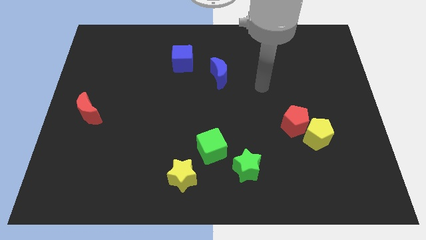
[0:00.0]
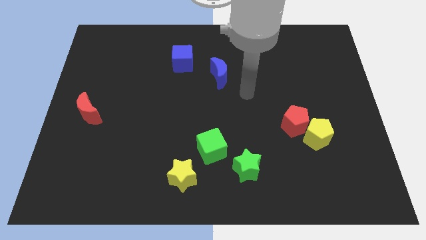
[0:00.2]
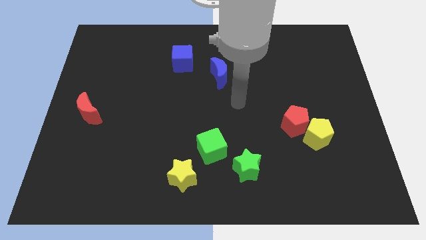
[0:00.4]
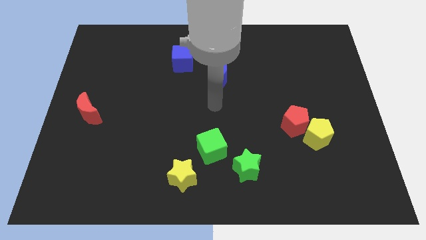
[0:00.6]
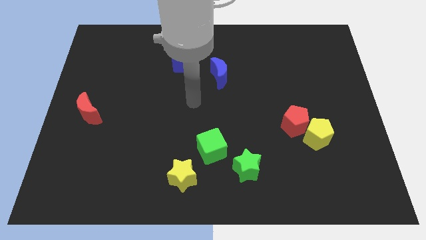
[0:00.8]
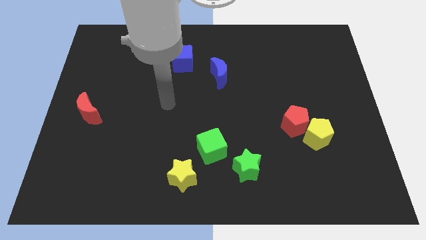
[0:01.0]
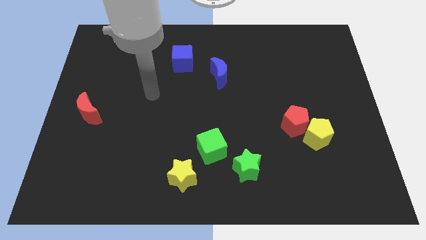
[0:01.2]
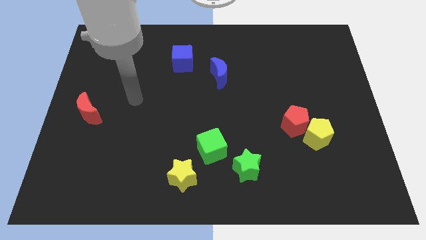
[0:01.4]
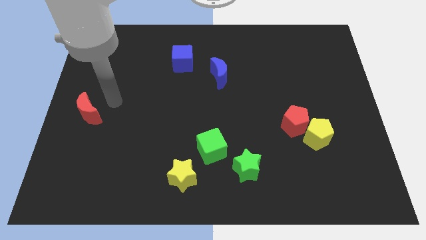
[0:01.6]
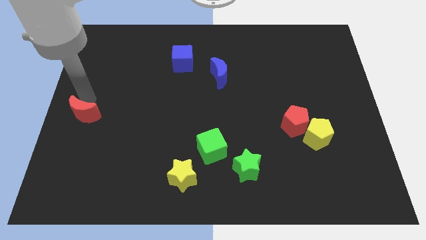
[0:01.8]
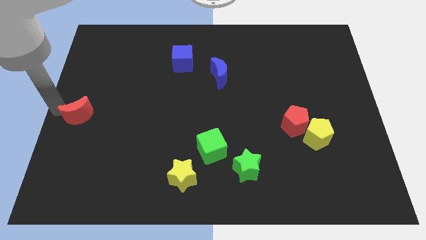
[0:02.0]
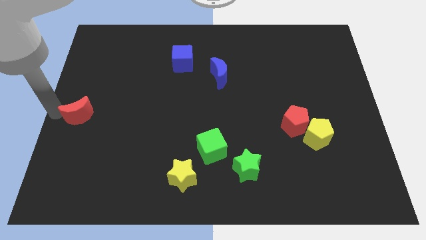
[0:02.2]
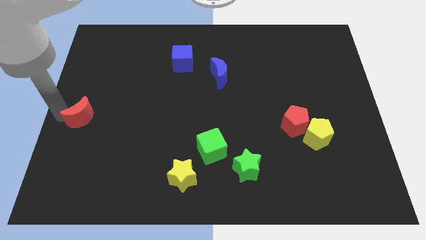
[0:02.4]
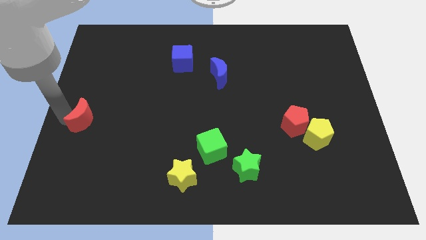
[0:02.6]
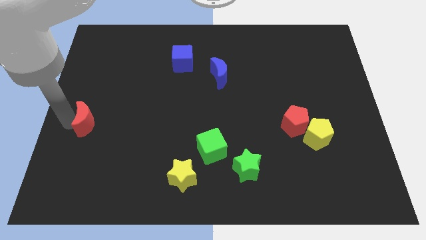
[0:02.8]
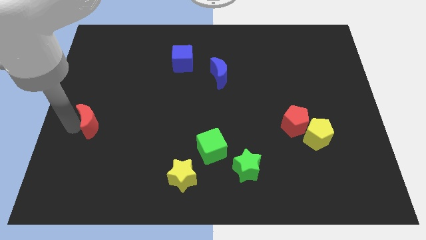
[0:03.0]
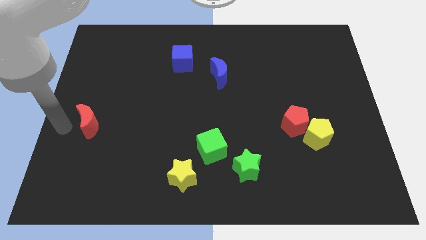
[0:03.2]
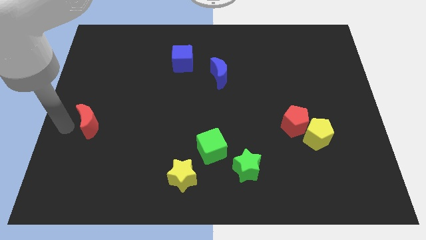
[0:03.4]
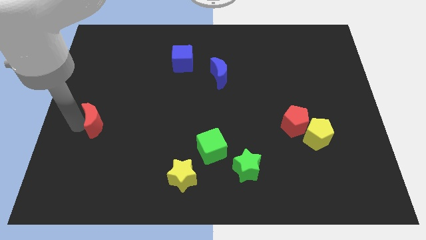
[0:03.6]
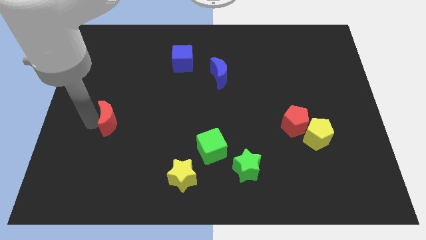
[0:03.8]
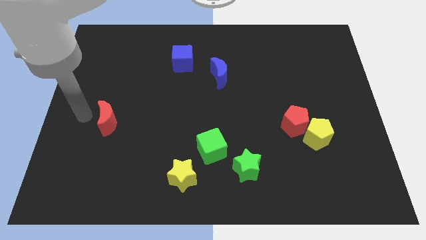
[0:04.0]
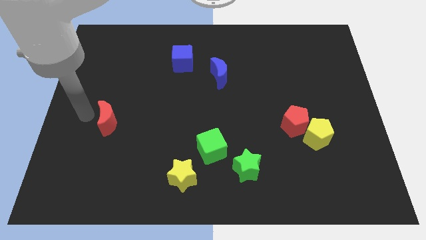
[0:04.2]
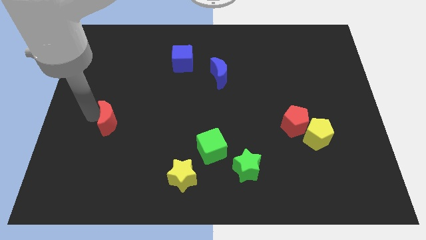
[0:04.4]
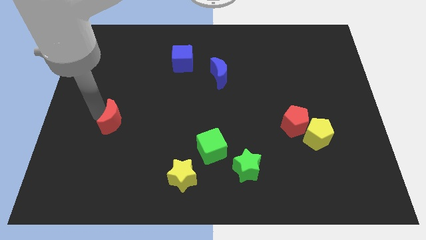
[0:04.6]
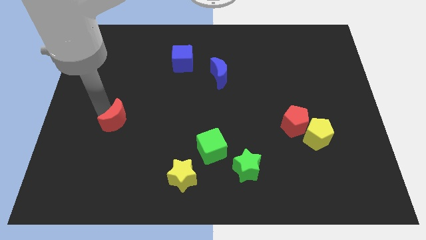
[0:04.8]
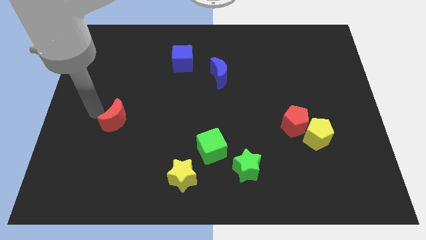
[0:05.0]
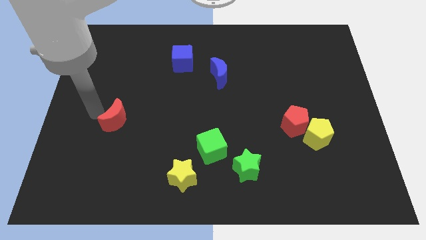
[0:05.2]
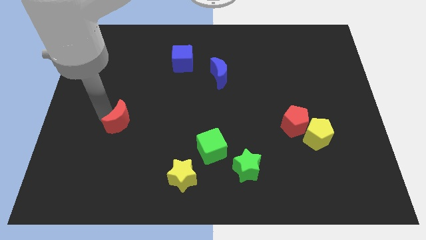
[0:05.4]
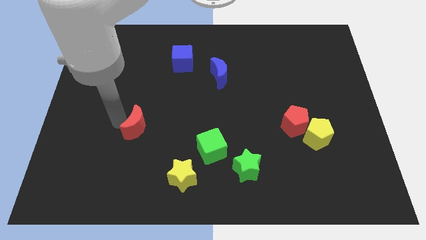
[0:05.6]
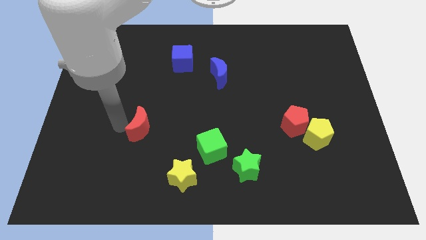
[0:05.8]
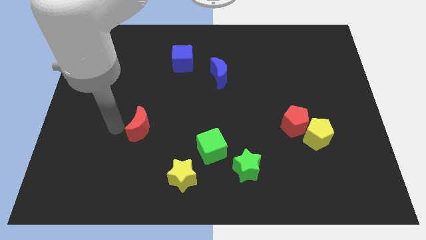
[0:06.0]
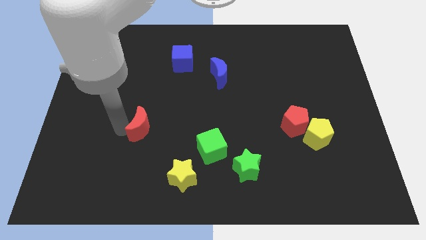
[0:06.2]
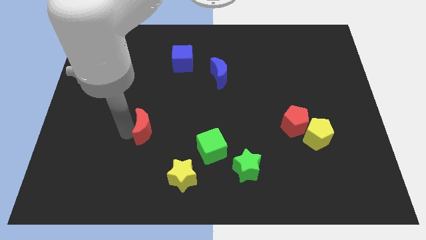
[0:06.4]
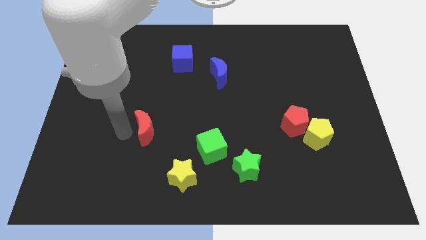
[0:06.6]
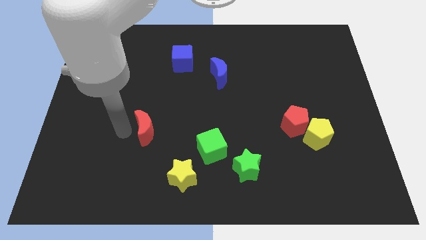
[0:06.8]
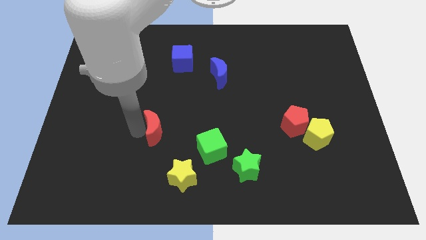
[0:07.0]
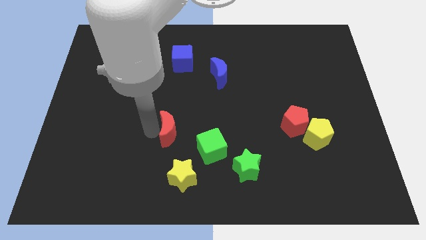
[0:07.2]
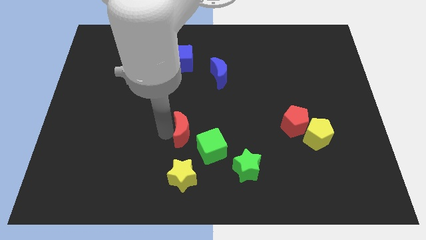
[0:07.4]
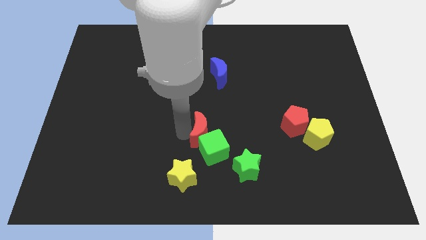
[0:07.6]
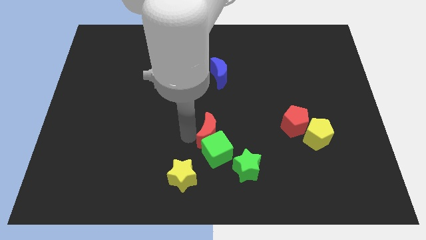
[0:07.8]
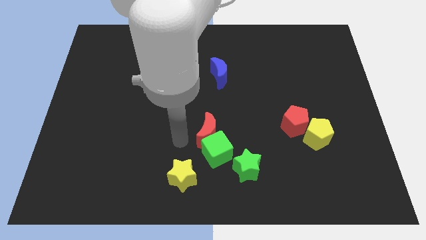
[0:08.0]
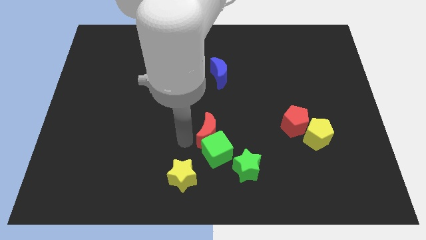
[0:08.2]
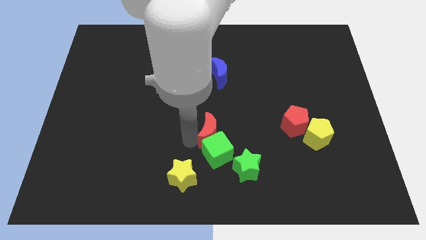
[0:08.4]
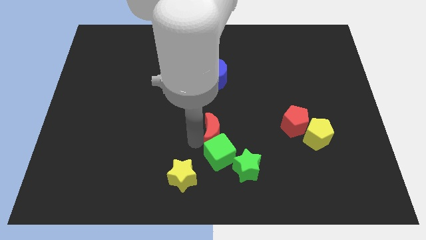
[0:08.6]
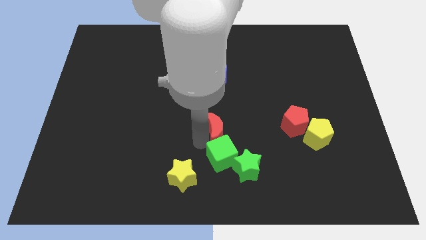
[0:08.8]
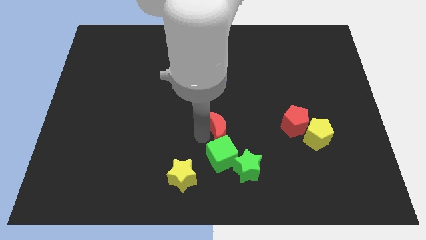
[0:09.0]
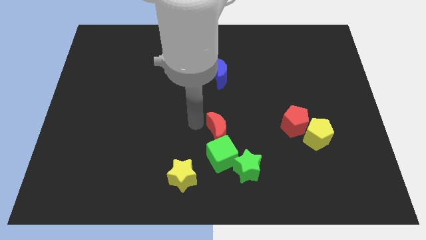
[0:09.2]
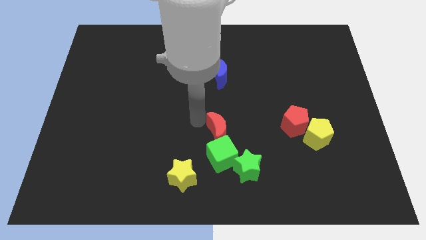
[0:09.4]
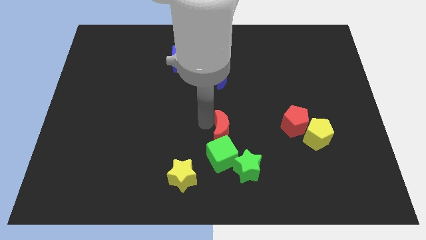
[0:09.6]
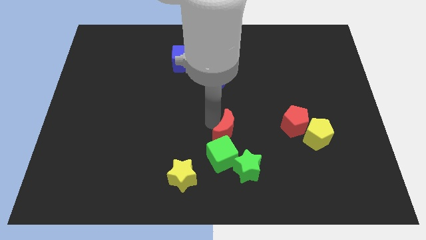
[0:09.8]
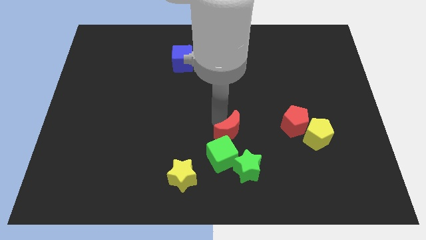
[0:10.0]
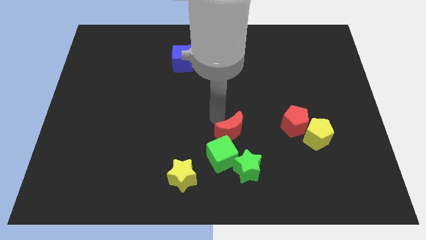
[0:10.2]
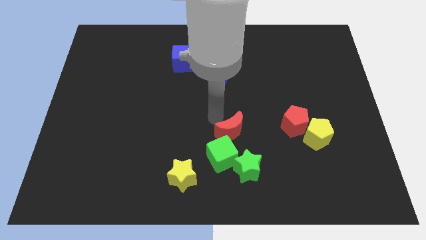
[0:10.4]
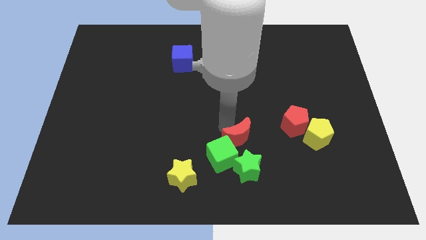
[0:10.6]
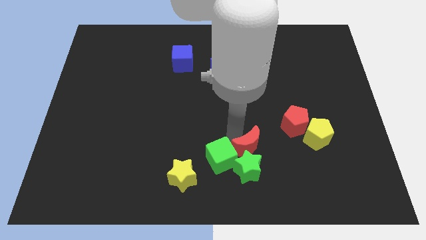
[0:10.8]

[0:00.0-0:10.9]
put the red moon to the left of the yellow pentagon
